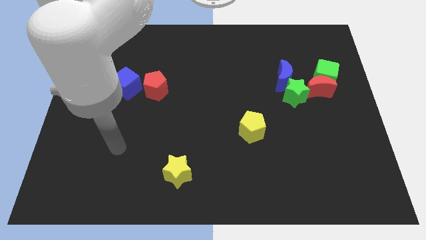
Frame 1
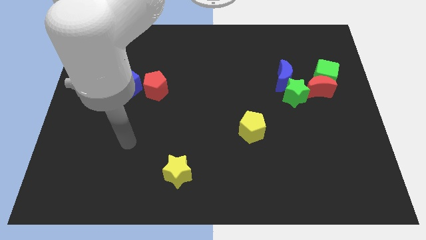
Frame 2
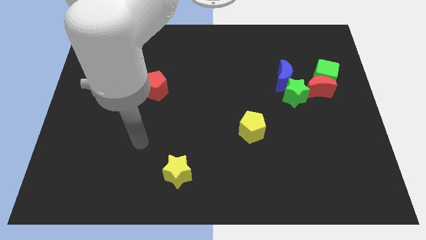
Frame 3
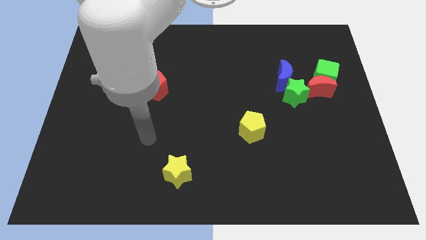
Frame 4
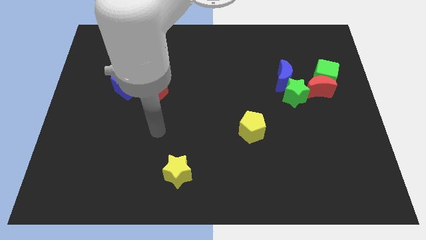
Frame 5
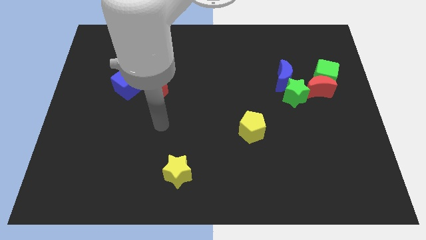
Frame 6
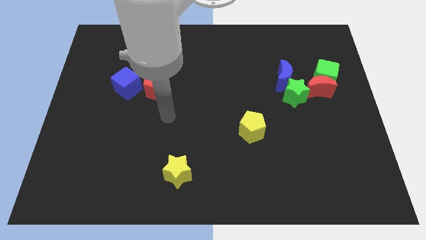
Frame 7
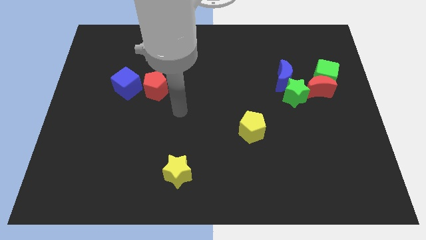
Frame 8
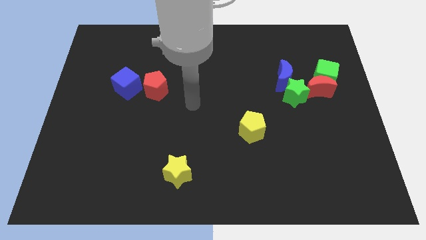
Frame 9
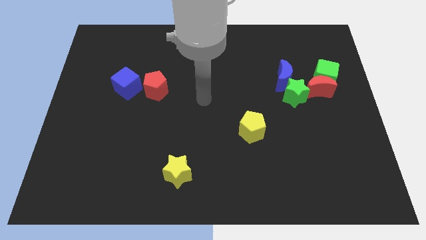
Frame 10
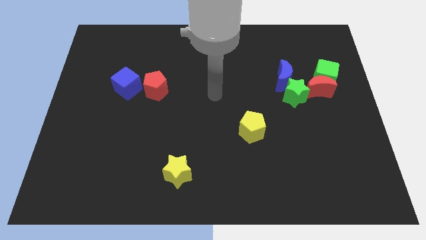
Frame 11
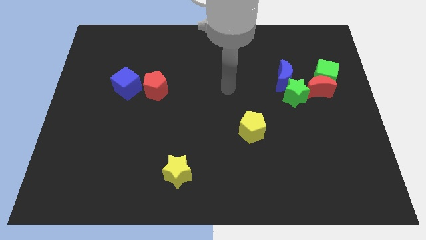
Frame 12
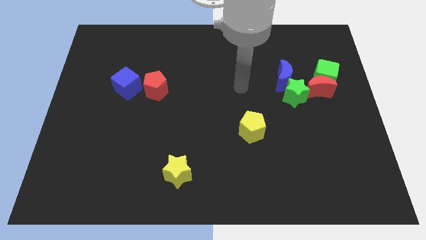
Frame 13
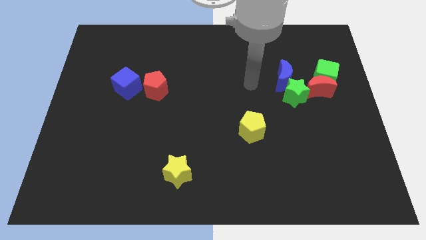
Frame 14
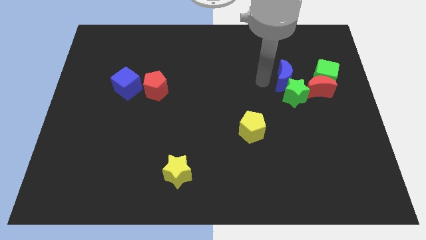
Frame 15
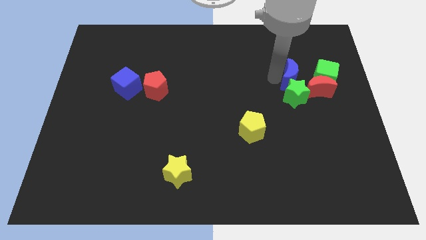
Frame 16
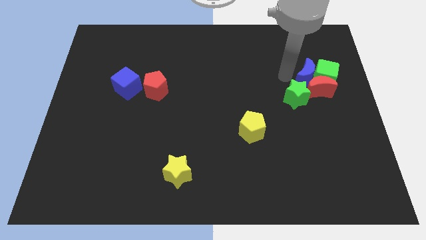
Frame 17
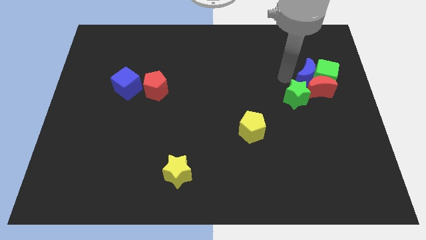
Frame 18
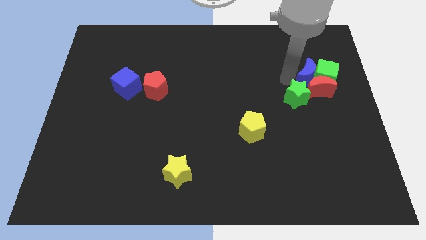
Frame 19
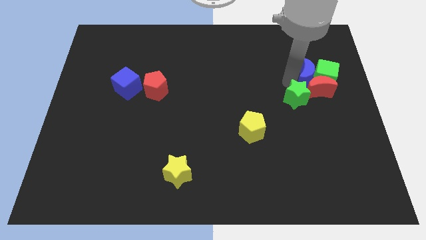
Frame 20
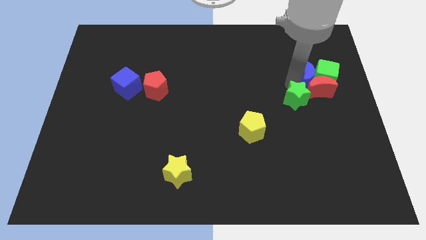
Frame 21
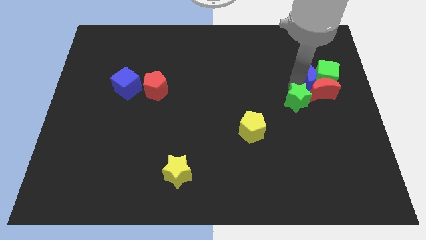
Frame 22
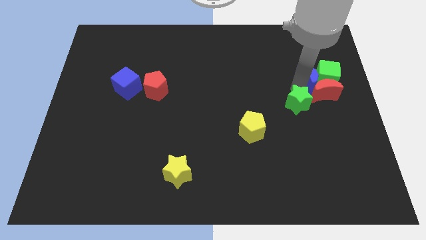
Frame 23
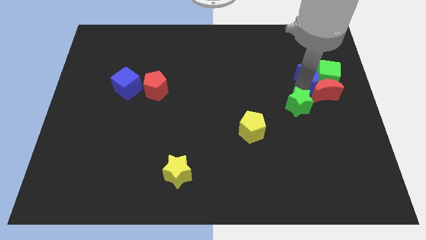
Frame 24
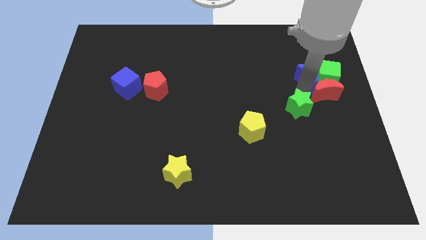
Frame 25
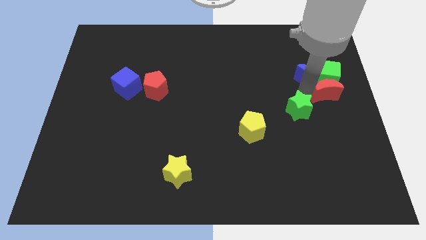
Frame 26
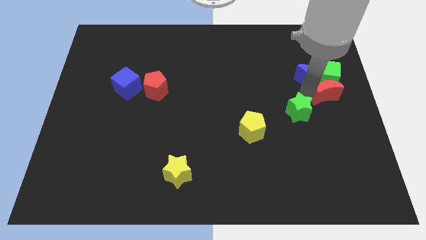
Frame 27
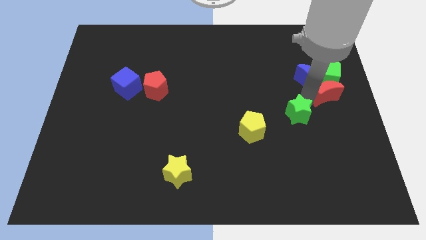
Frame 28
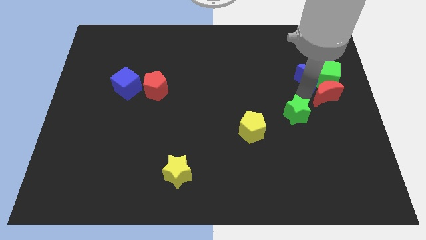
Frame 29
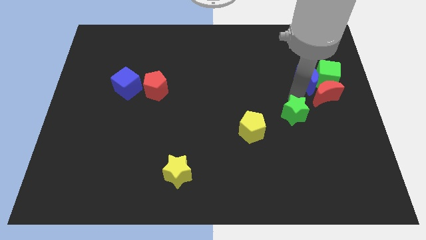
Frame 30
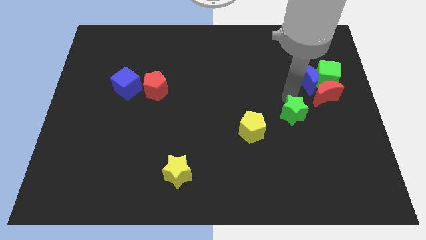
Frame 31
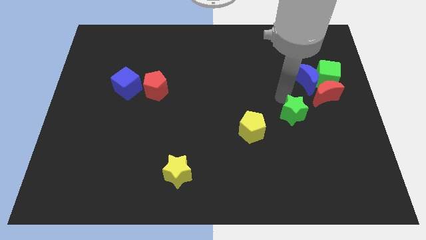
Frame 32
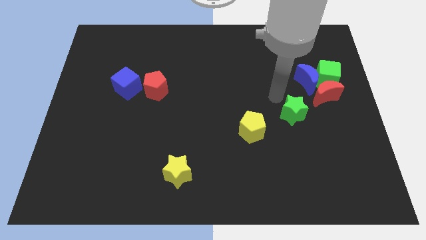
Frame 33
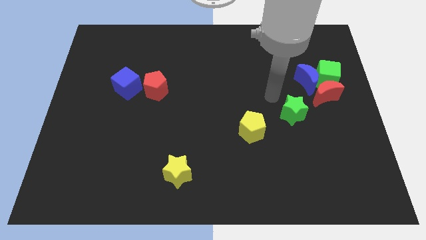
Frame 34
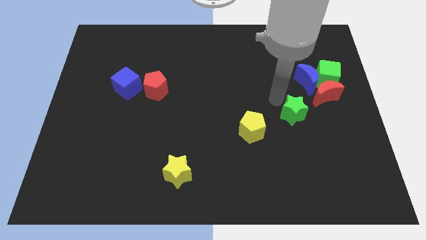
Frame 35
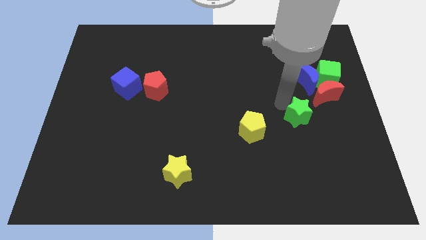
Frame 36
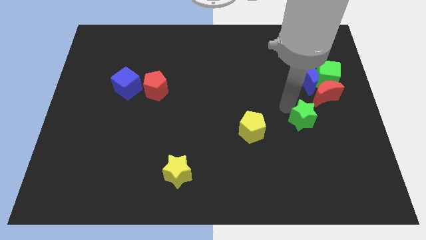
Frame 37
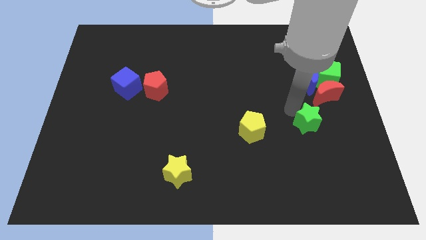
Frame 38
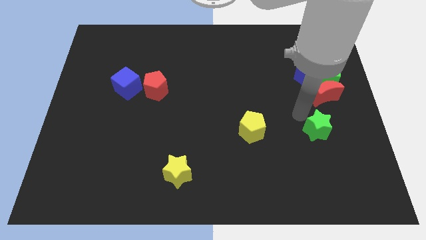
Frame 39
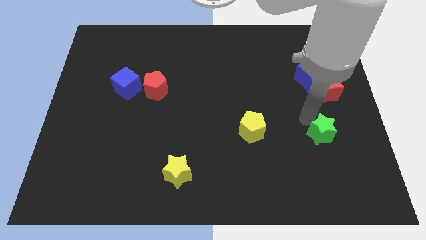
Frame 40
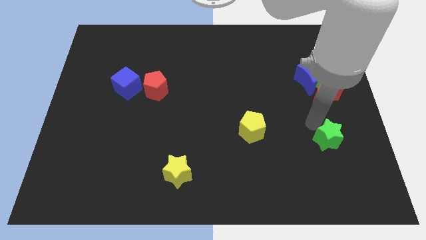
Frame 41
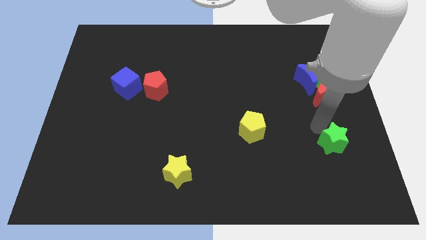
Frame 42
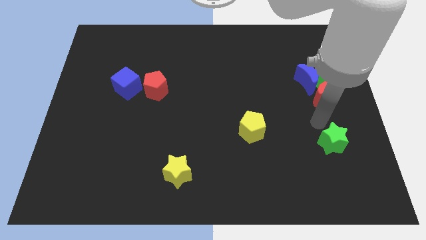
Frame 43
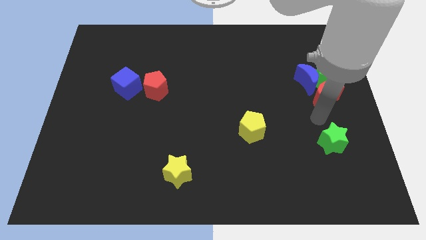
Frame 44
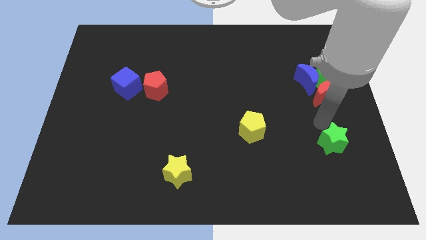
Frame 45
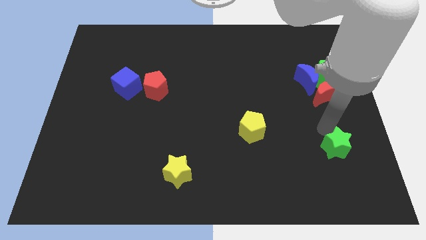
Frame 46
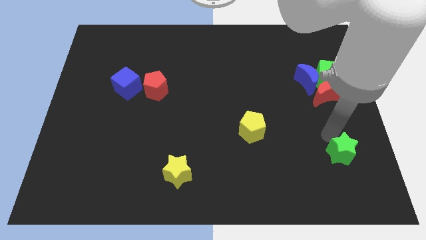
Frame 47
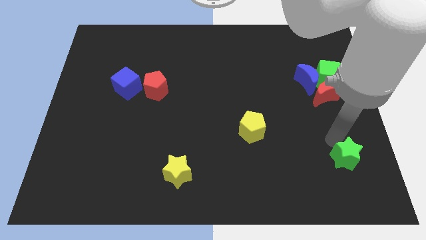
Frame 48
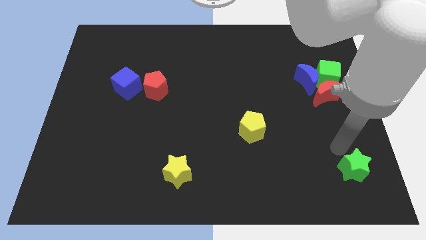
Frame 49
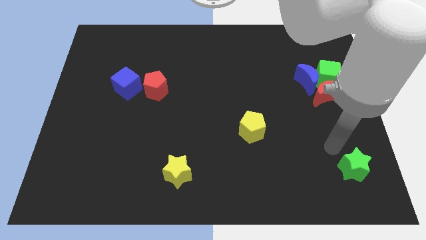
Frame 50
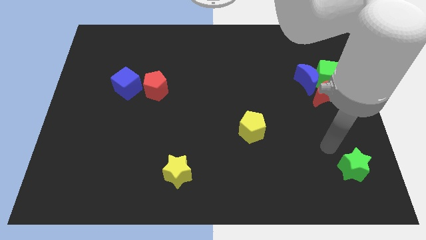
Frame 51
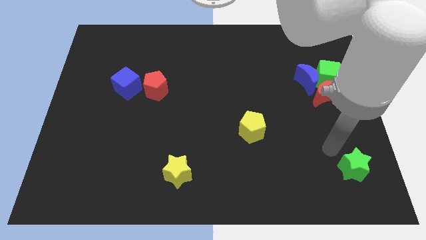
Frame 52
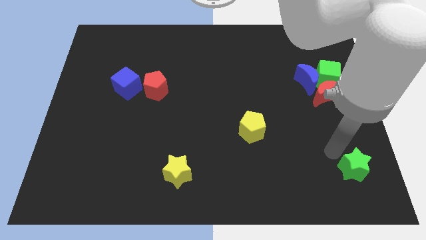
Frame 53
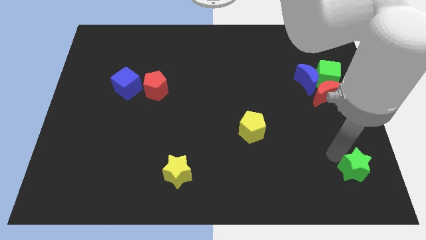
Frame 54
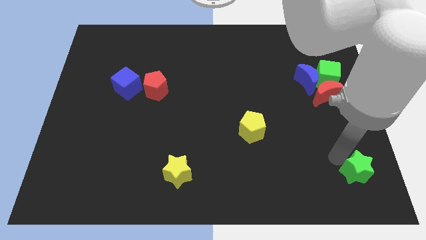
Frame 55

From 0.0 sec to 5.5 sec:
move the green star to the bottom right

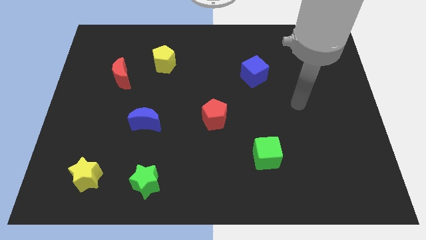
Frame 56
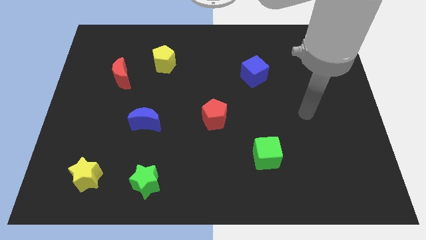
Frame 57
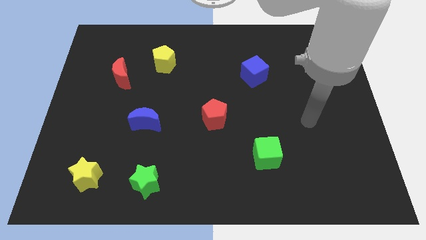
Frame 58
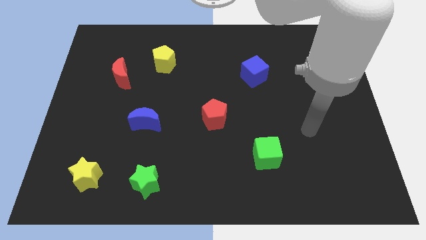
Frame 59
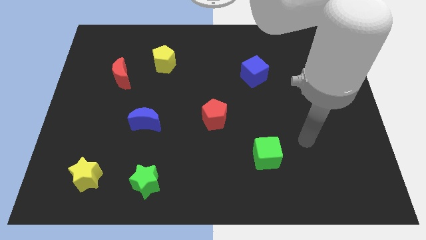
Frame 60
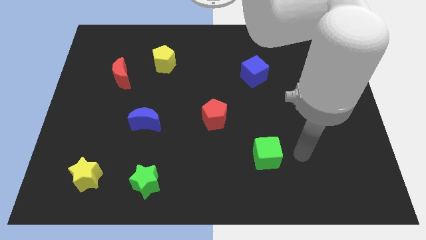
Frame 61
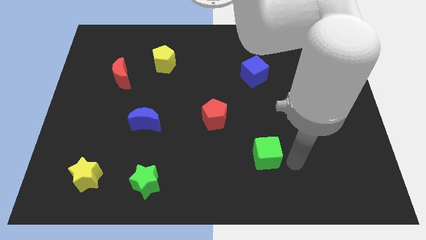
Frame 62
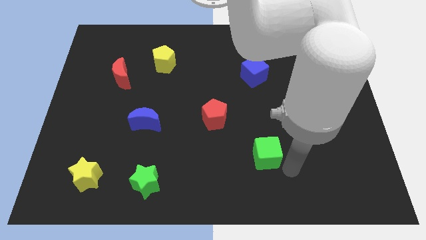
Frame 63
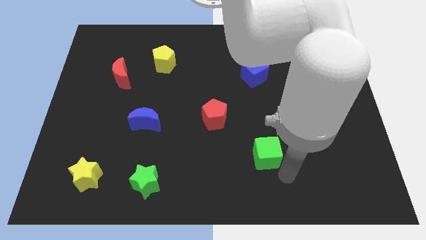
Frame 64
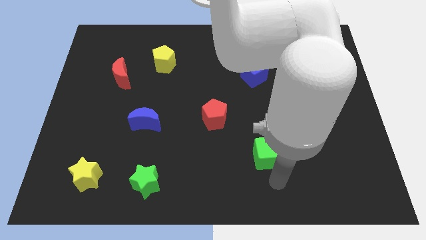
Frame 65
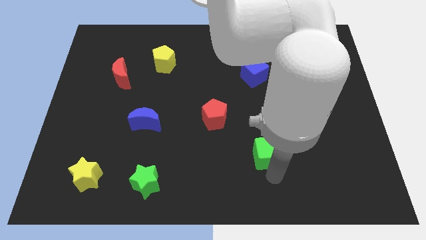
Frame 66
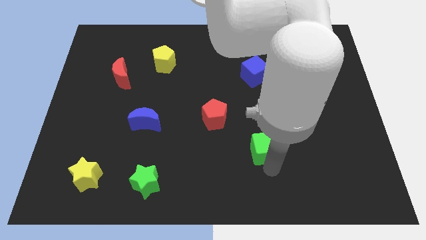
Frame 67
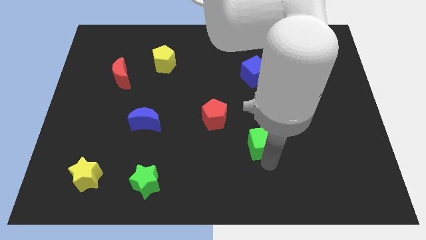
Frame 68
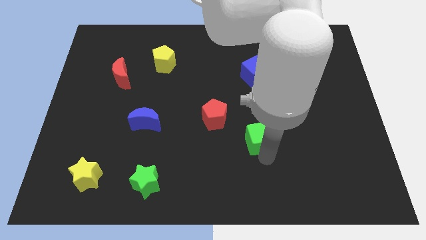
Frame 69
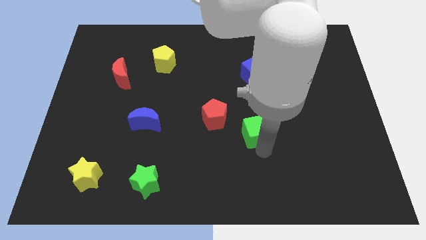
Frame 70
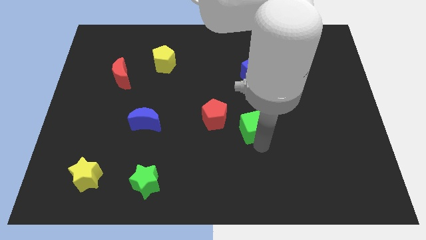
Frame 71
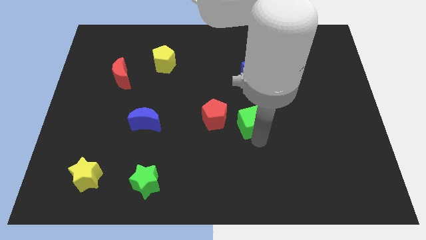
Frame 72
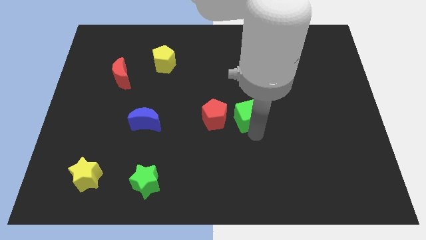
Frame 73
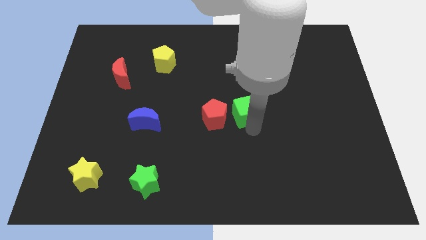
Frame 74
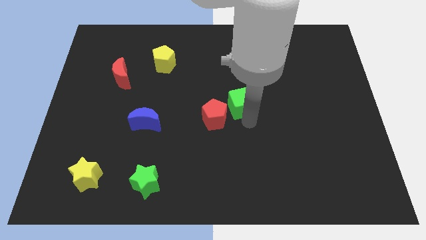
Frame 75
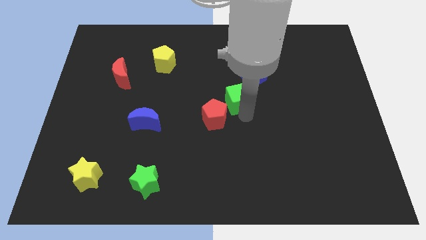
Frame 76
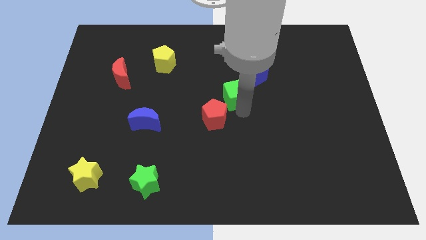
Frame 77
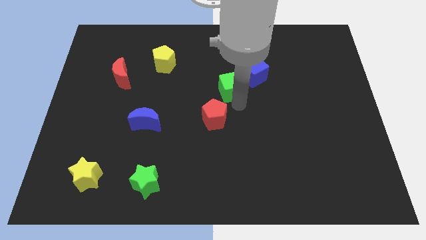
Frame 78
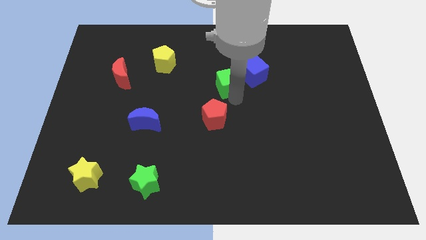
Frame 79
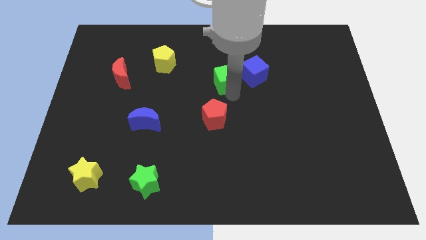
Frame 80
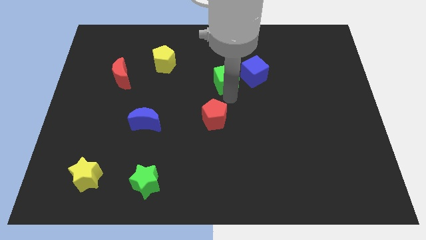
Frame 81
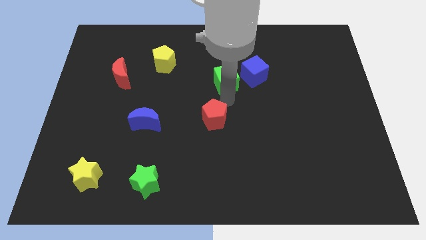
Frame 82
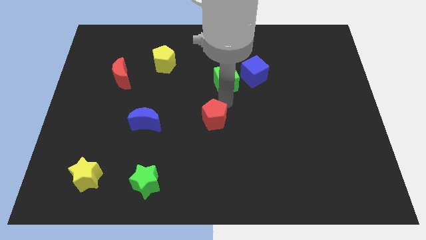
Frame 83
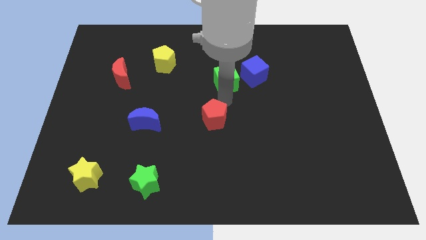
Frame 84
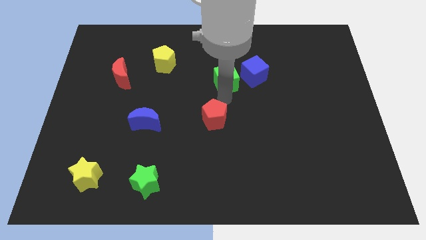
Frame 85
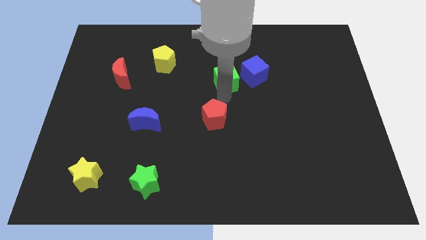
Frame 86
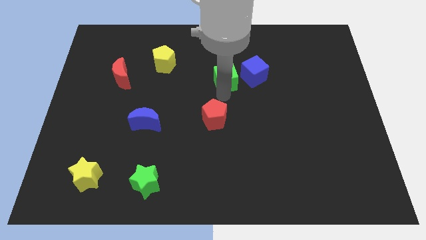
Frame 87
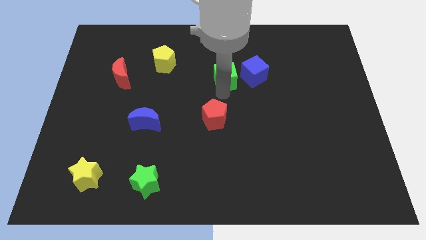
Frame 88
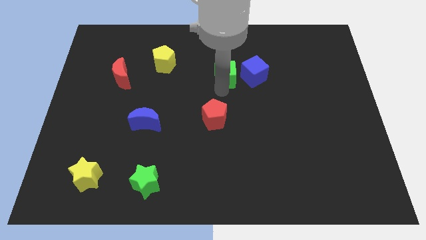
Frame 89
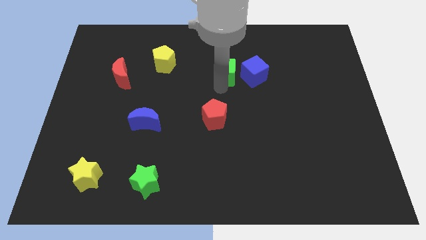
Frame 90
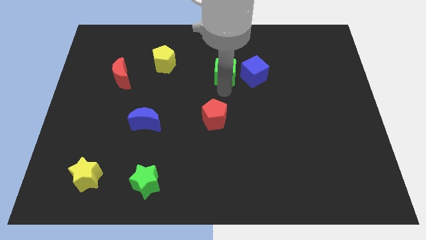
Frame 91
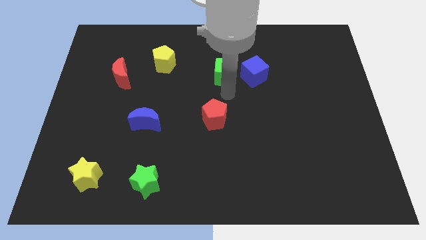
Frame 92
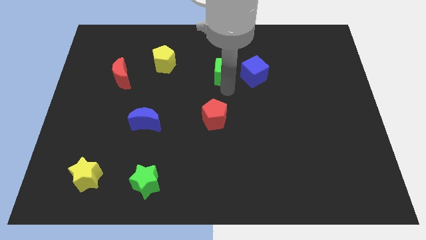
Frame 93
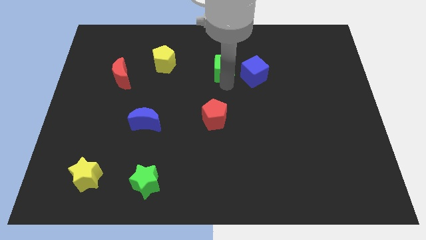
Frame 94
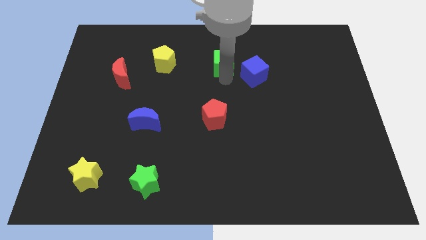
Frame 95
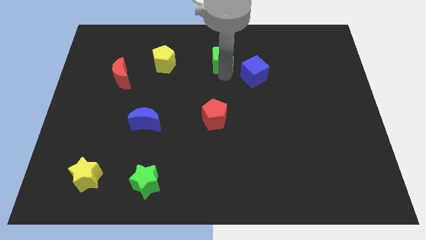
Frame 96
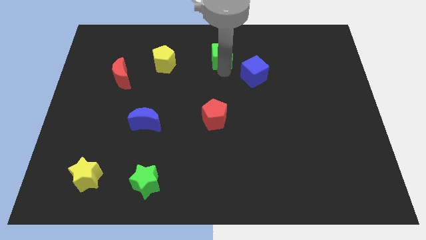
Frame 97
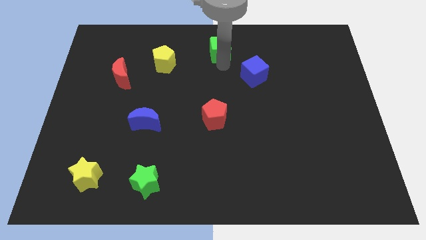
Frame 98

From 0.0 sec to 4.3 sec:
move the green cube to the top side
